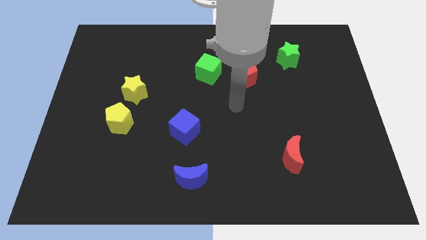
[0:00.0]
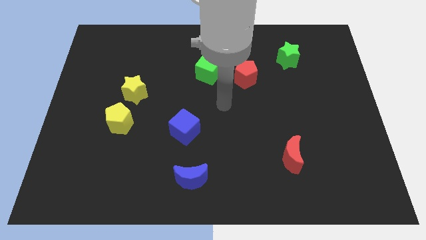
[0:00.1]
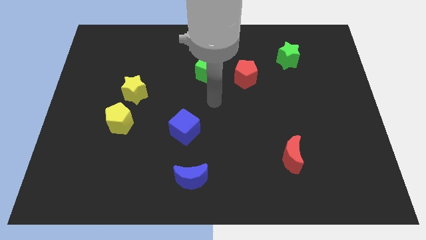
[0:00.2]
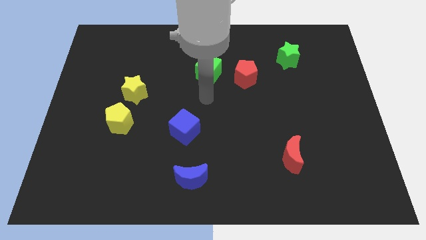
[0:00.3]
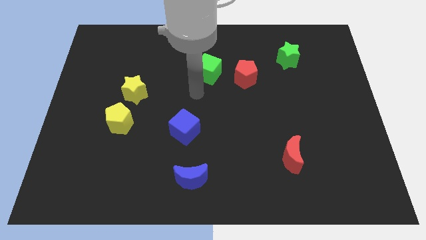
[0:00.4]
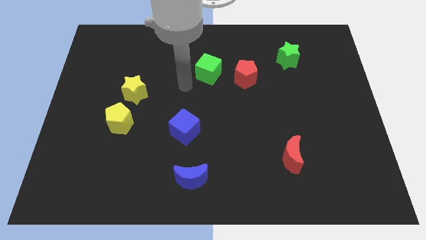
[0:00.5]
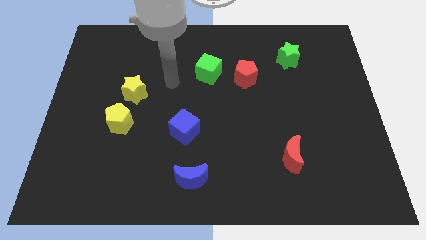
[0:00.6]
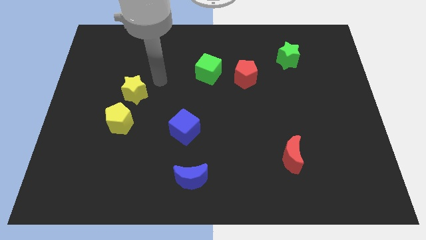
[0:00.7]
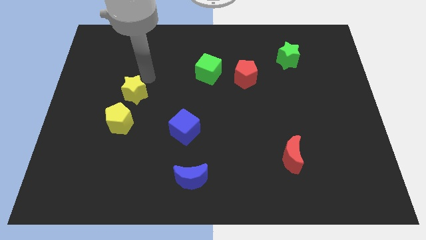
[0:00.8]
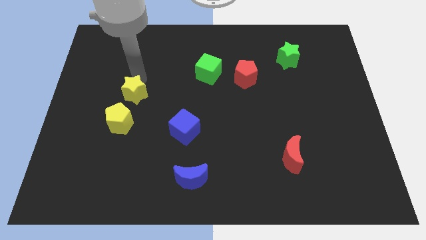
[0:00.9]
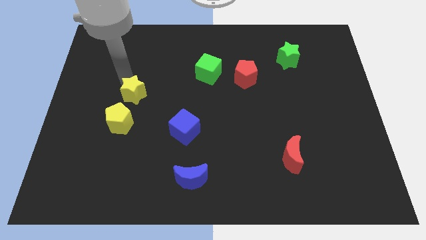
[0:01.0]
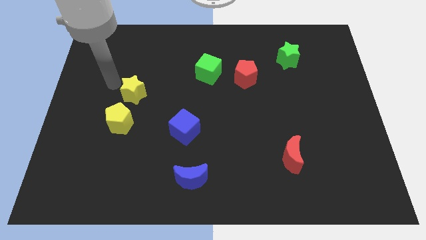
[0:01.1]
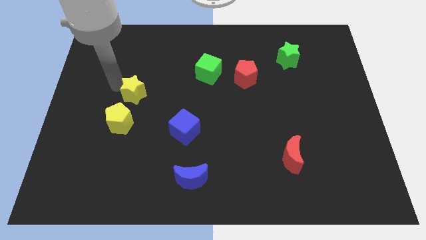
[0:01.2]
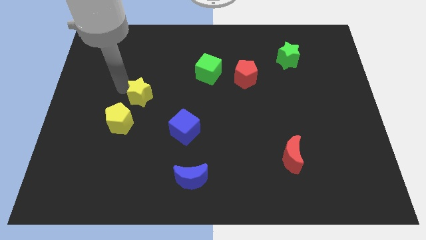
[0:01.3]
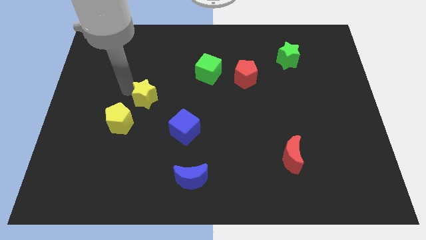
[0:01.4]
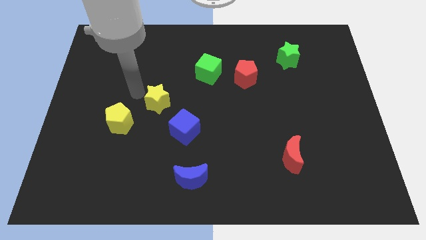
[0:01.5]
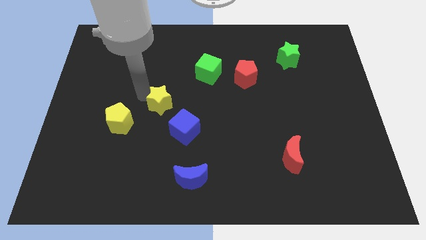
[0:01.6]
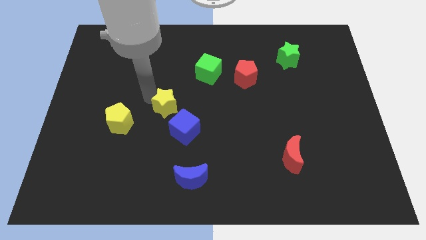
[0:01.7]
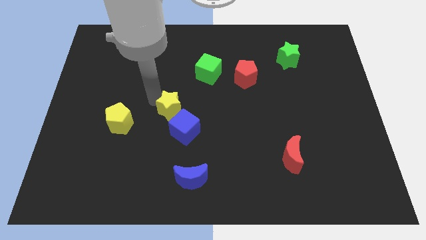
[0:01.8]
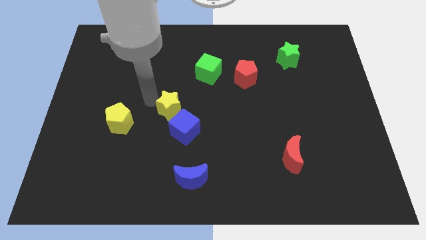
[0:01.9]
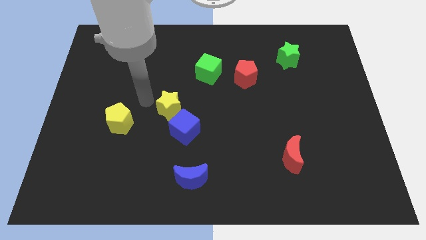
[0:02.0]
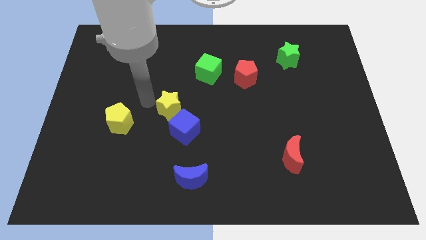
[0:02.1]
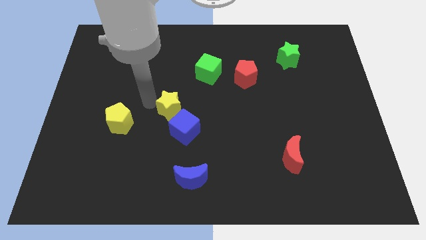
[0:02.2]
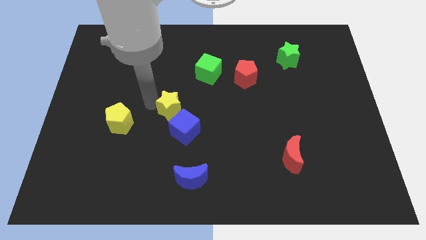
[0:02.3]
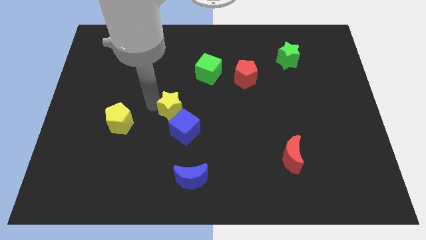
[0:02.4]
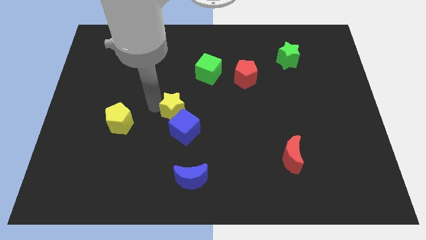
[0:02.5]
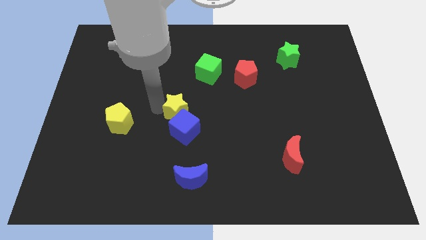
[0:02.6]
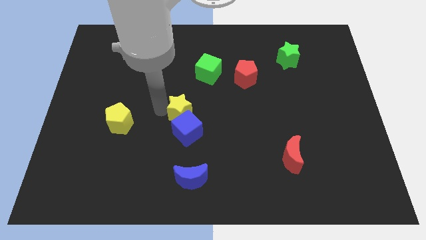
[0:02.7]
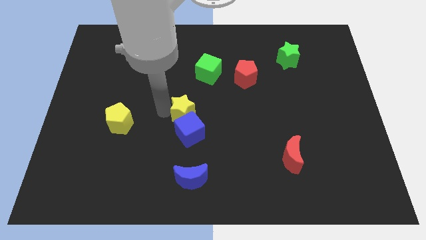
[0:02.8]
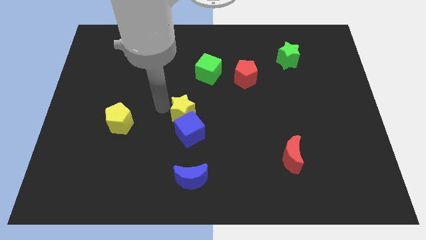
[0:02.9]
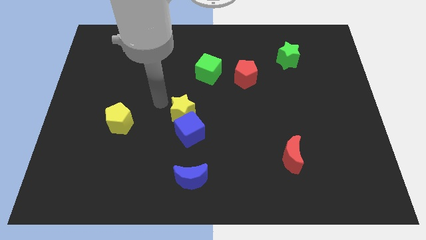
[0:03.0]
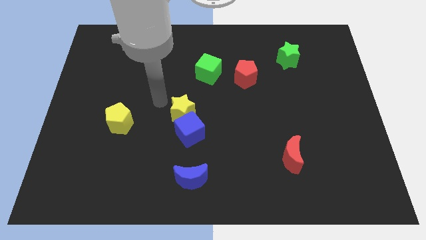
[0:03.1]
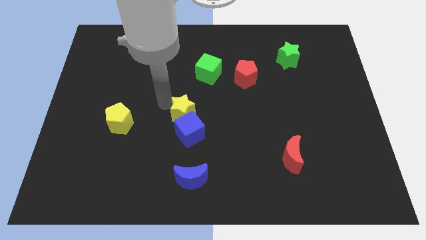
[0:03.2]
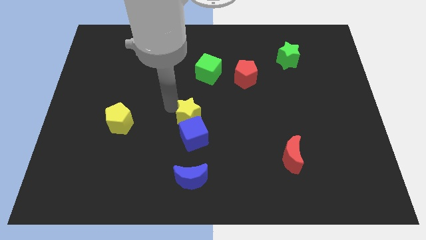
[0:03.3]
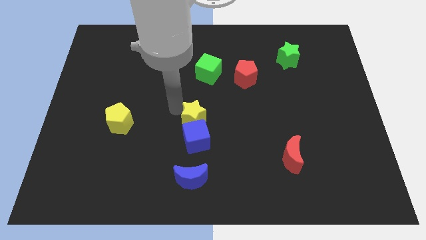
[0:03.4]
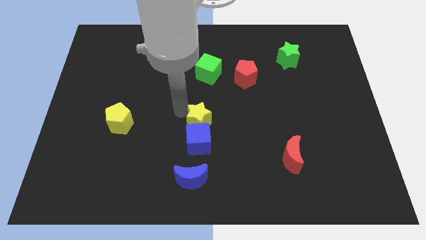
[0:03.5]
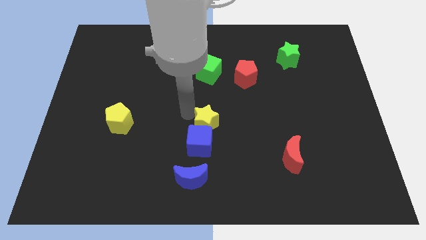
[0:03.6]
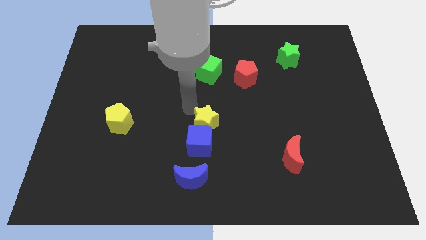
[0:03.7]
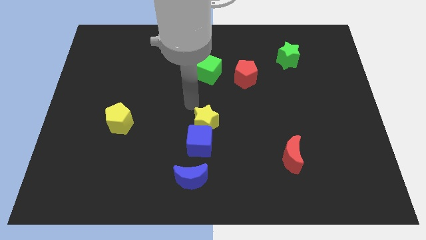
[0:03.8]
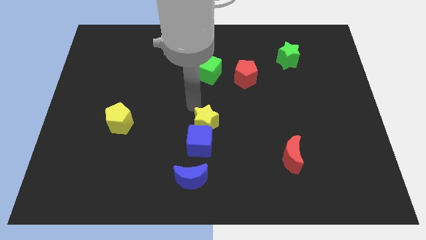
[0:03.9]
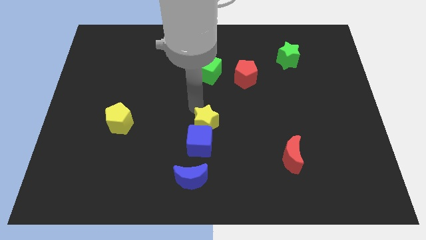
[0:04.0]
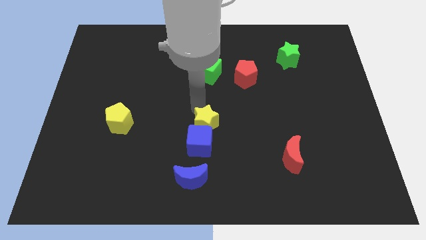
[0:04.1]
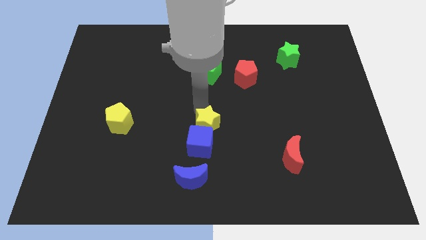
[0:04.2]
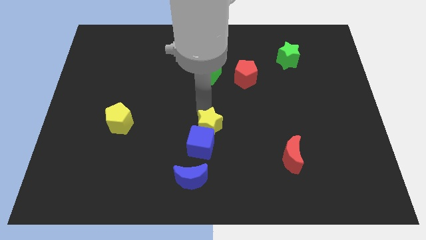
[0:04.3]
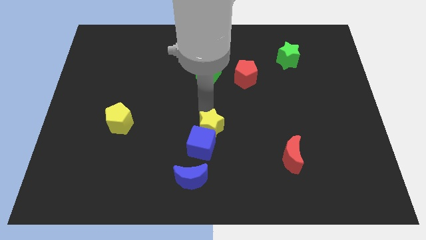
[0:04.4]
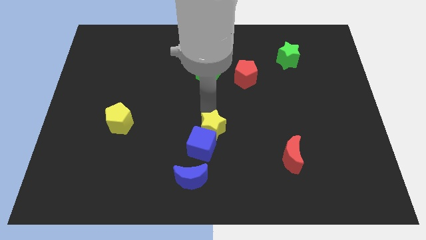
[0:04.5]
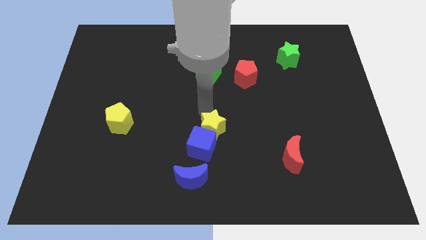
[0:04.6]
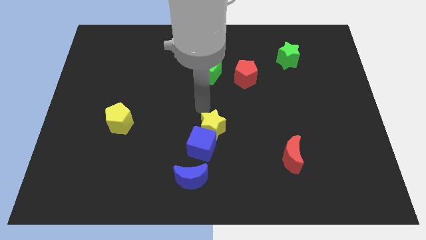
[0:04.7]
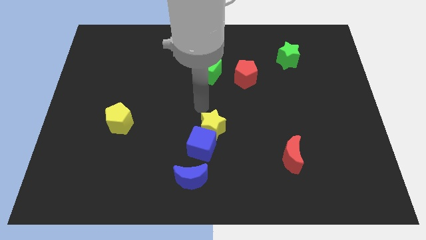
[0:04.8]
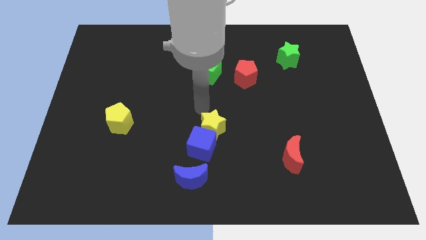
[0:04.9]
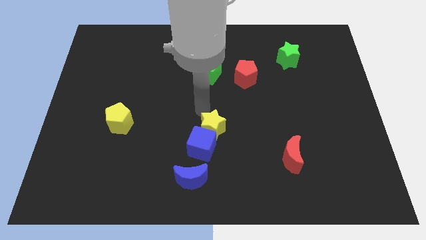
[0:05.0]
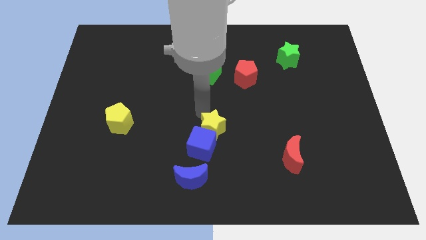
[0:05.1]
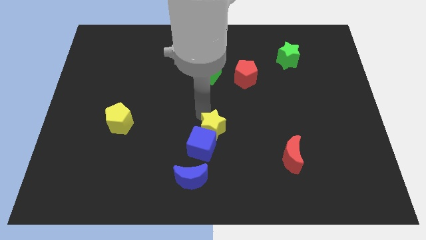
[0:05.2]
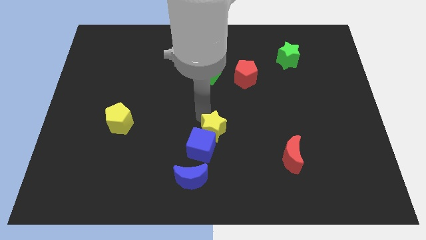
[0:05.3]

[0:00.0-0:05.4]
move the yellow star down and right diagonally

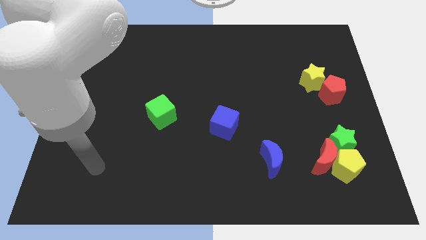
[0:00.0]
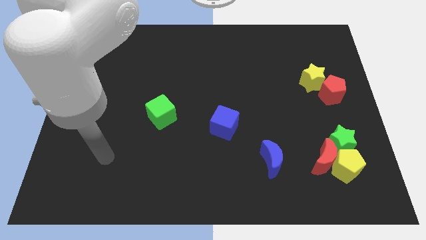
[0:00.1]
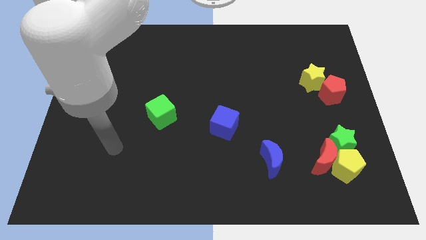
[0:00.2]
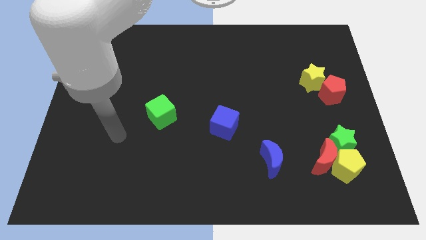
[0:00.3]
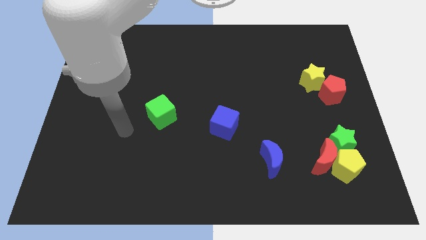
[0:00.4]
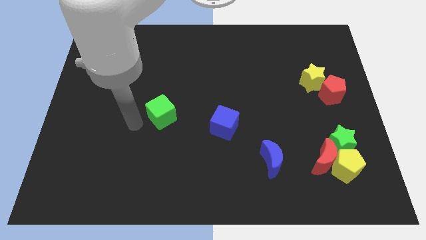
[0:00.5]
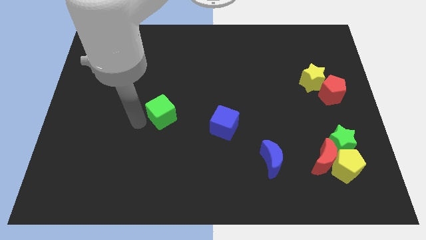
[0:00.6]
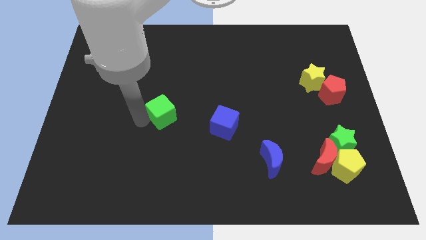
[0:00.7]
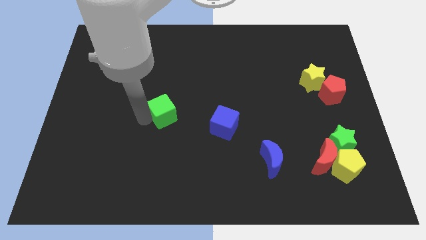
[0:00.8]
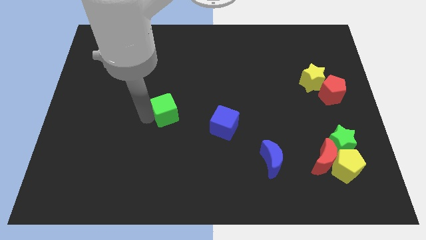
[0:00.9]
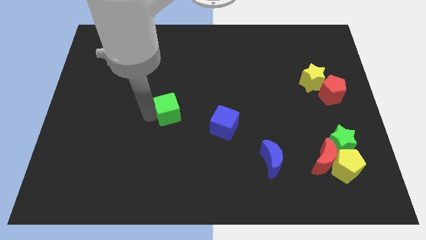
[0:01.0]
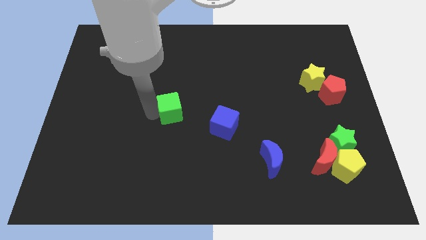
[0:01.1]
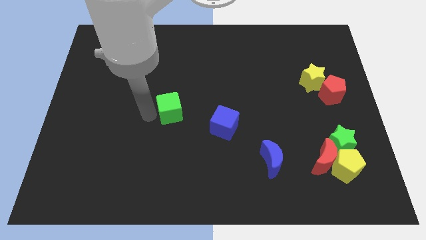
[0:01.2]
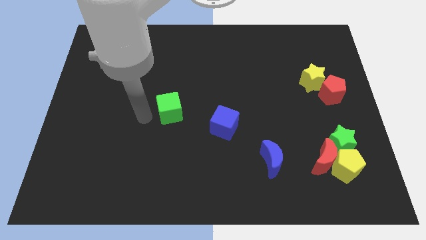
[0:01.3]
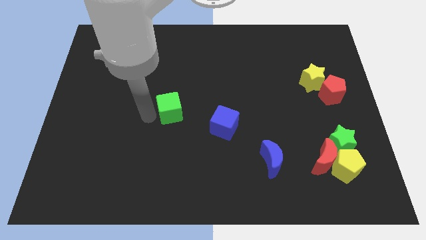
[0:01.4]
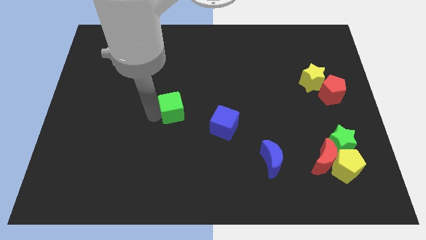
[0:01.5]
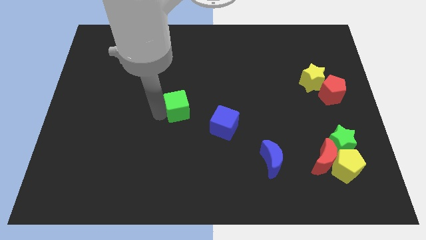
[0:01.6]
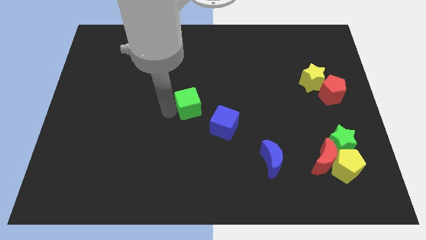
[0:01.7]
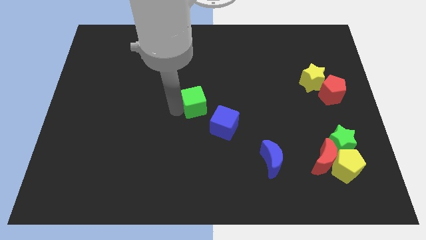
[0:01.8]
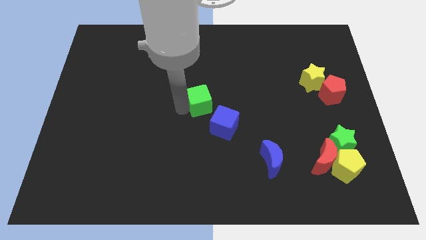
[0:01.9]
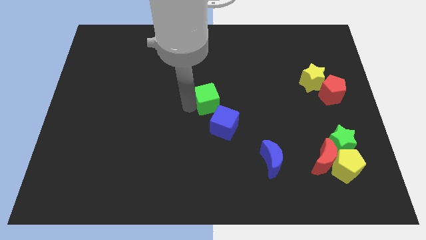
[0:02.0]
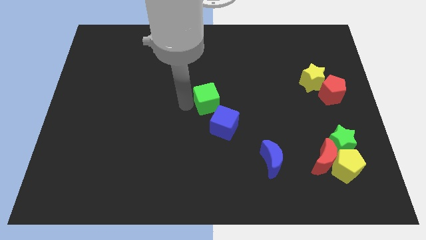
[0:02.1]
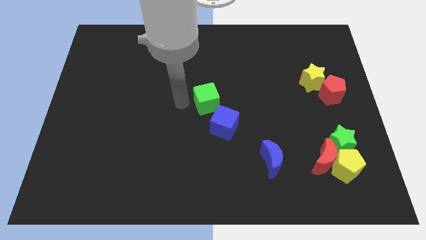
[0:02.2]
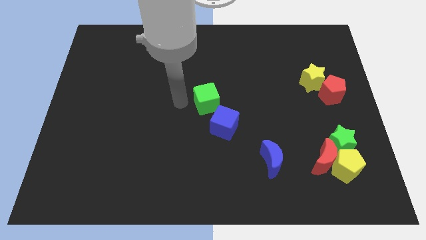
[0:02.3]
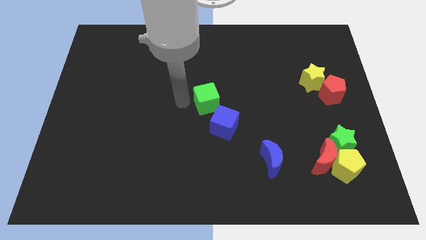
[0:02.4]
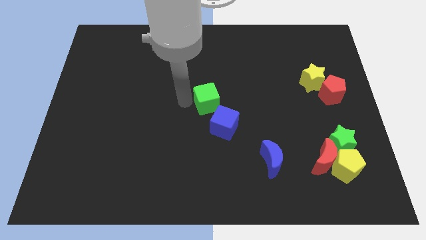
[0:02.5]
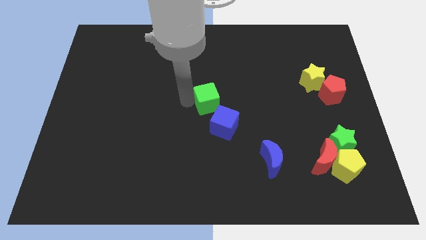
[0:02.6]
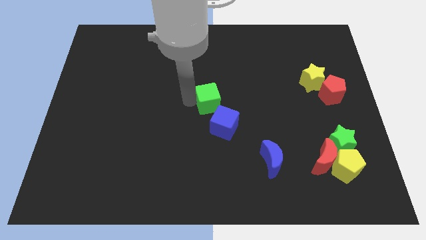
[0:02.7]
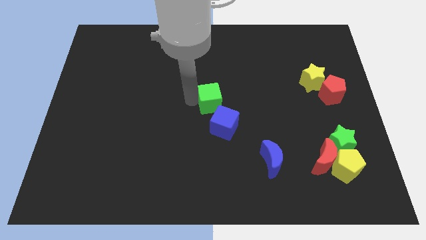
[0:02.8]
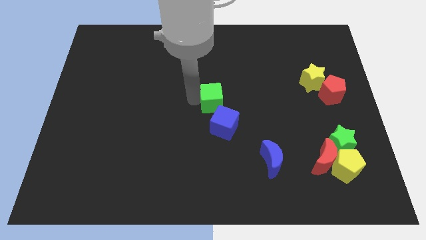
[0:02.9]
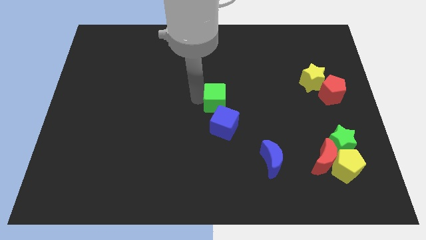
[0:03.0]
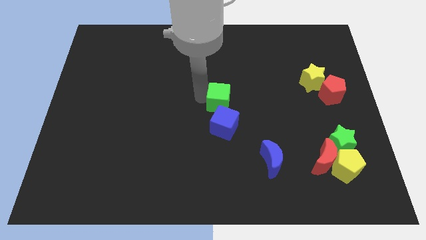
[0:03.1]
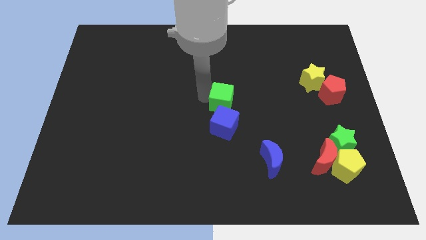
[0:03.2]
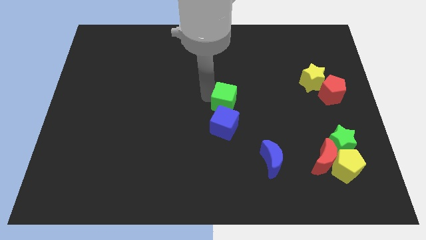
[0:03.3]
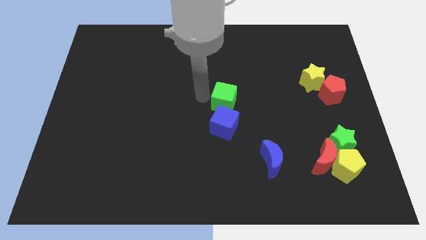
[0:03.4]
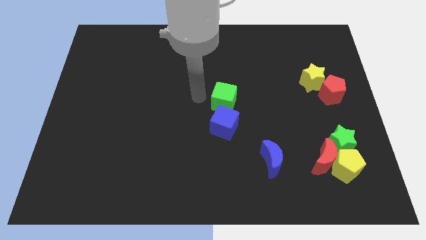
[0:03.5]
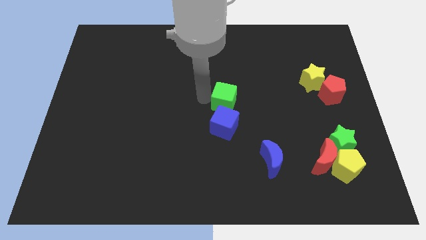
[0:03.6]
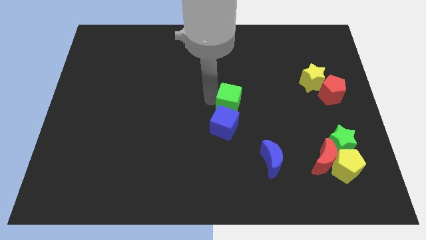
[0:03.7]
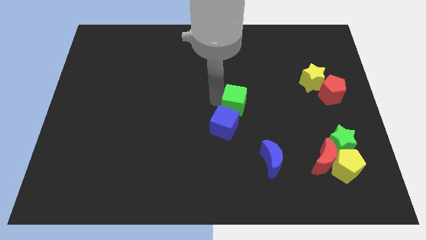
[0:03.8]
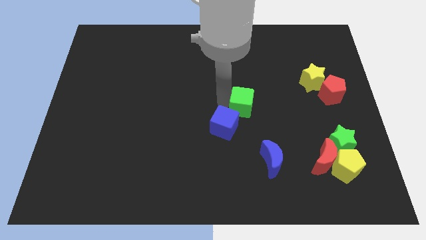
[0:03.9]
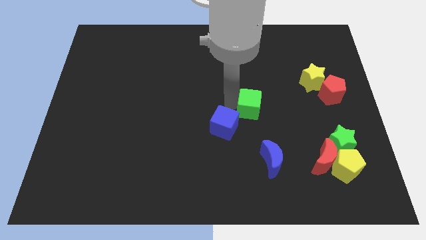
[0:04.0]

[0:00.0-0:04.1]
move the green cube right
